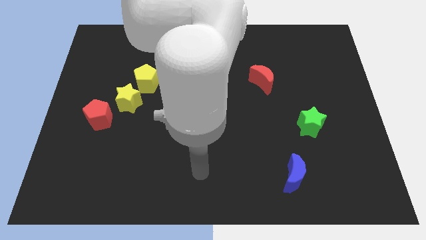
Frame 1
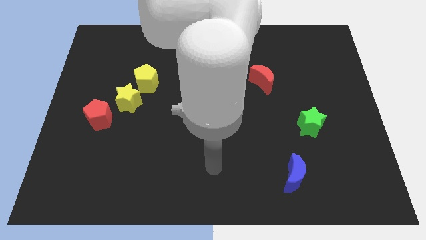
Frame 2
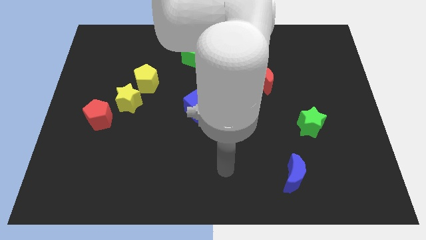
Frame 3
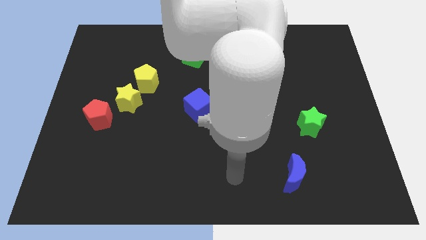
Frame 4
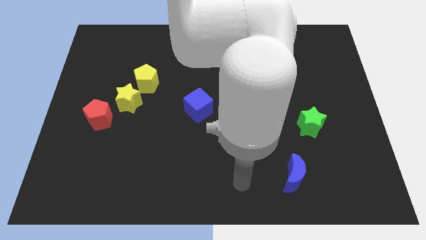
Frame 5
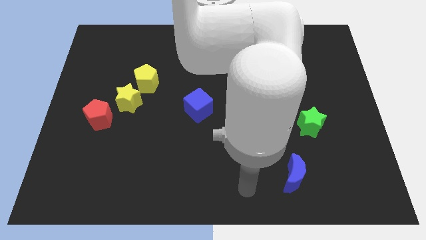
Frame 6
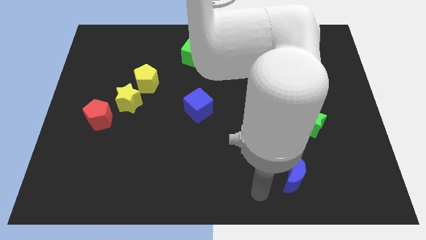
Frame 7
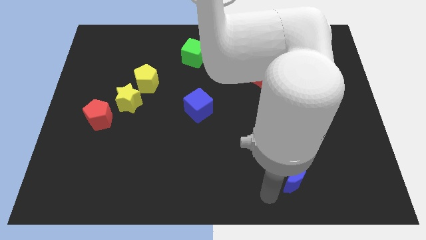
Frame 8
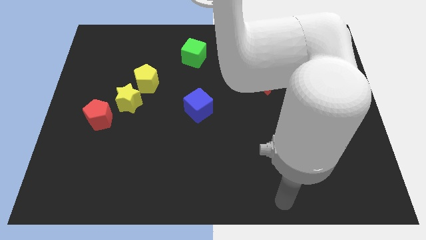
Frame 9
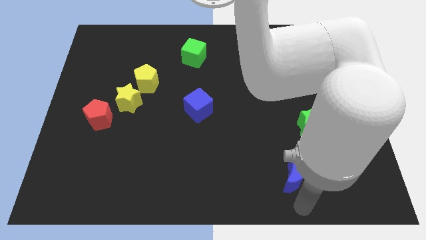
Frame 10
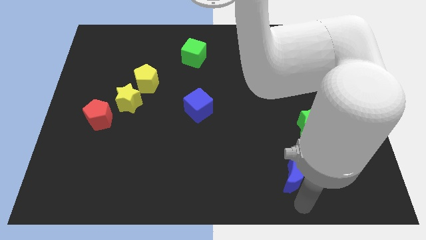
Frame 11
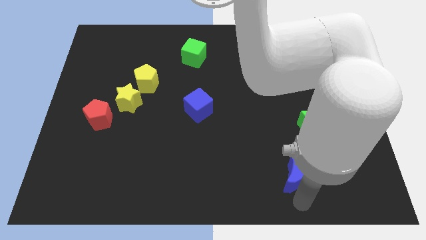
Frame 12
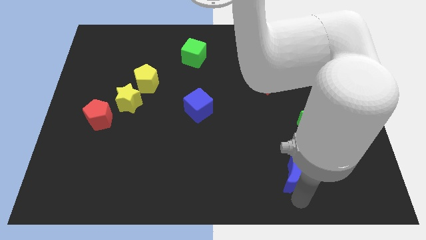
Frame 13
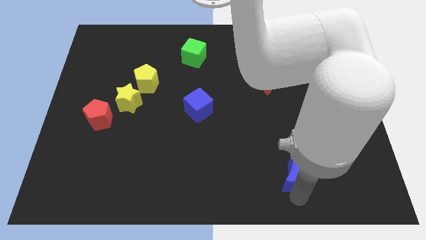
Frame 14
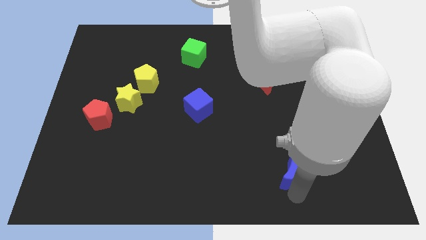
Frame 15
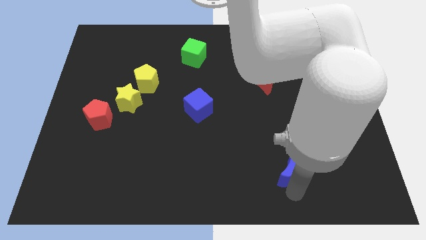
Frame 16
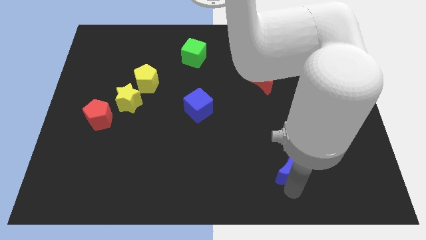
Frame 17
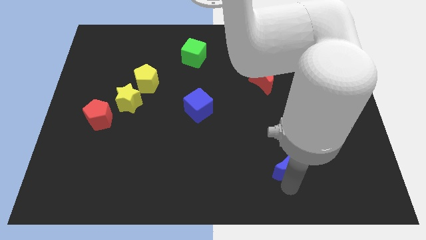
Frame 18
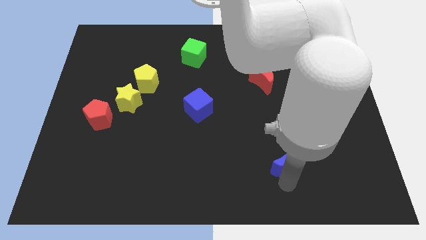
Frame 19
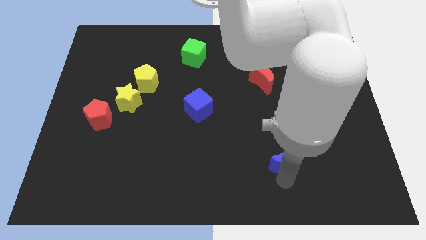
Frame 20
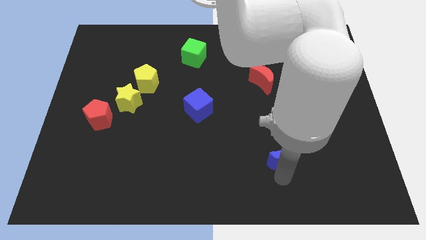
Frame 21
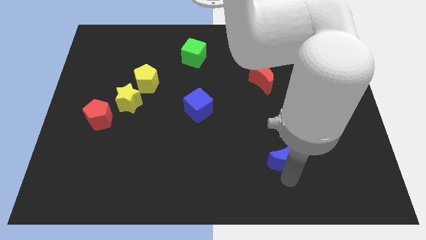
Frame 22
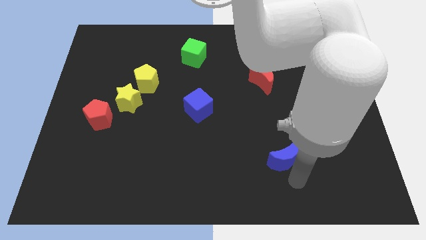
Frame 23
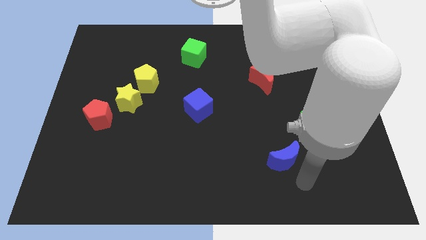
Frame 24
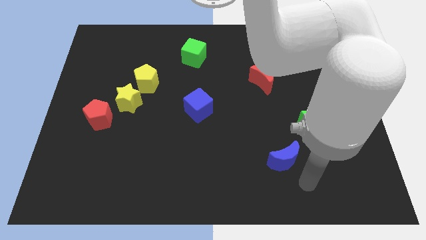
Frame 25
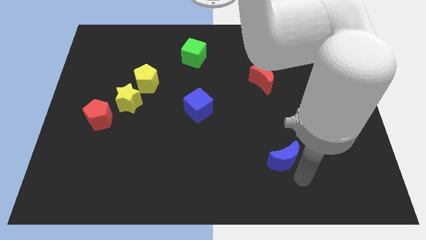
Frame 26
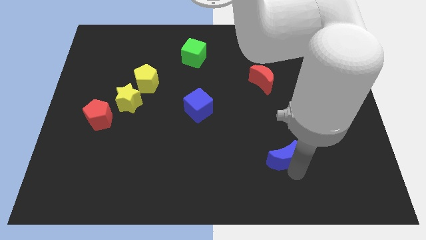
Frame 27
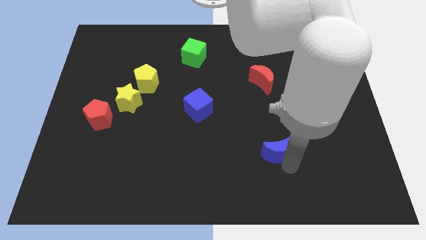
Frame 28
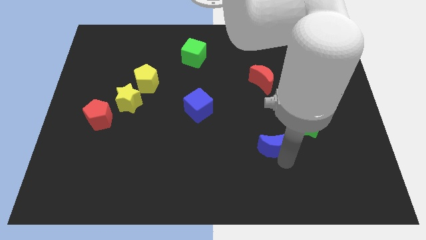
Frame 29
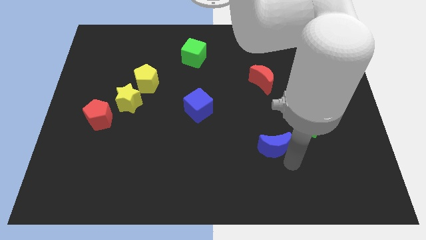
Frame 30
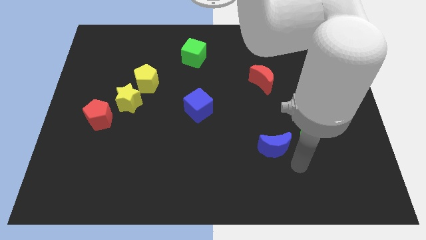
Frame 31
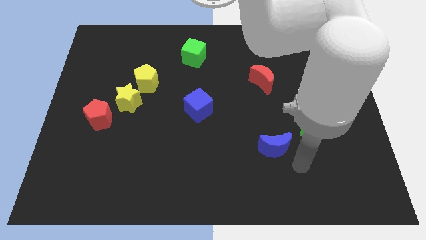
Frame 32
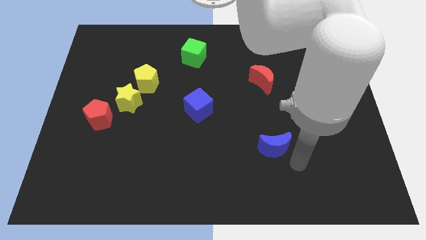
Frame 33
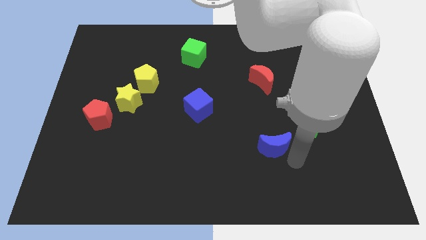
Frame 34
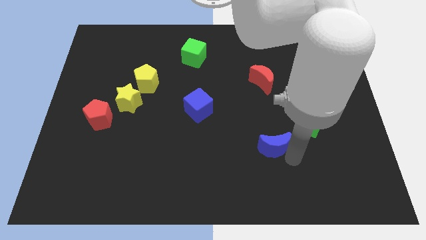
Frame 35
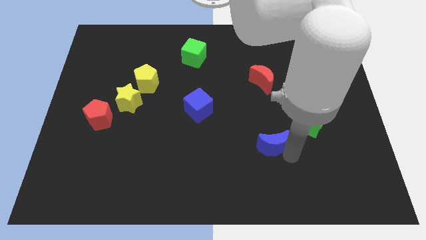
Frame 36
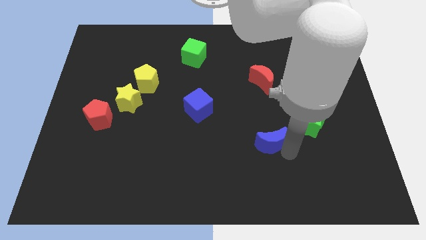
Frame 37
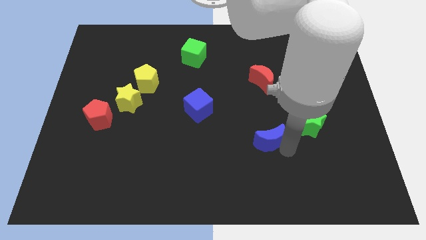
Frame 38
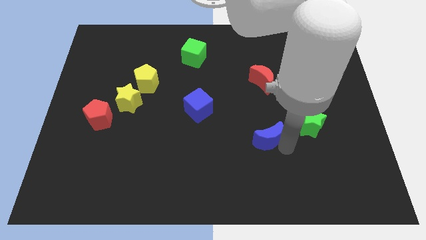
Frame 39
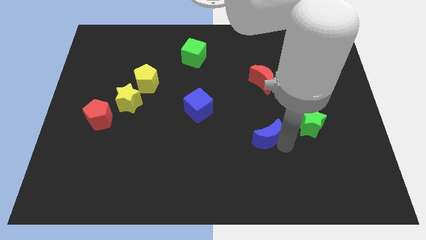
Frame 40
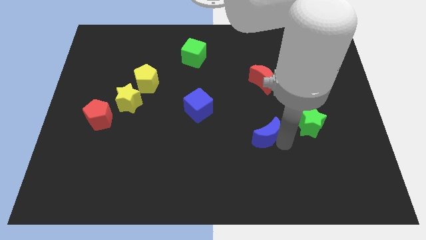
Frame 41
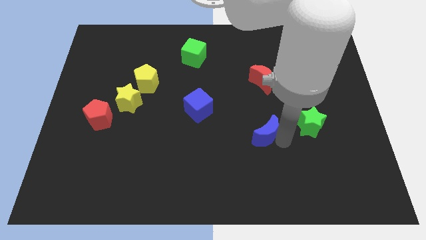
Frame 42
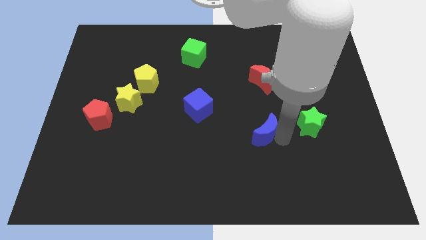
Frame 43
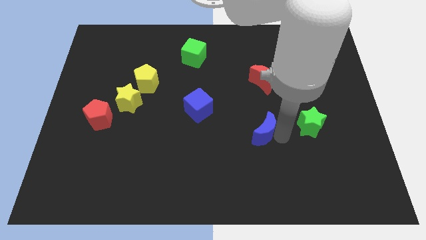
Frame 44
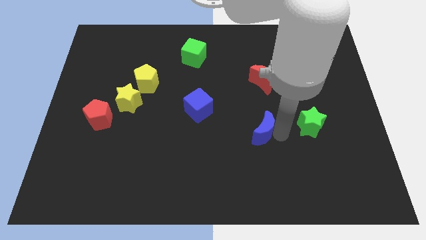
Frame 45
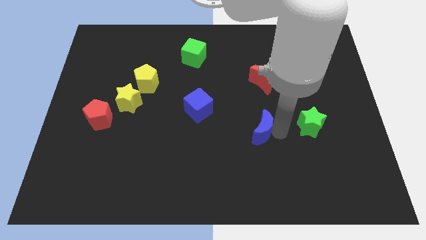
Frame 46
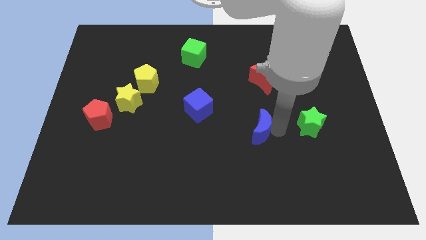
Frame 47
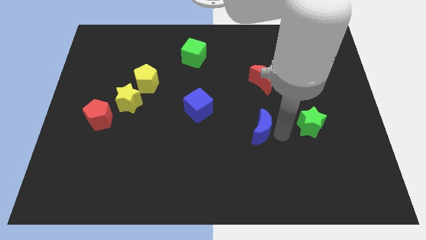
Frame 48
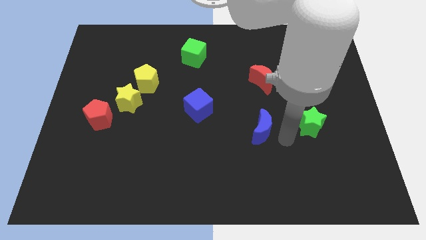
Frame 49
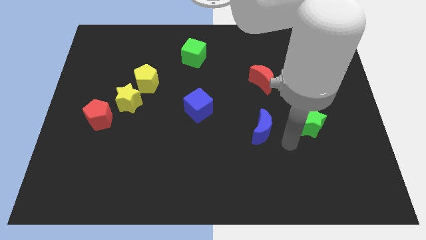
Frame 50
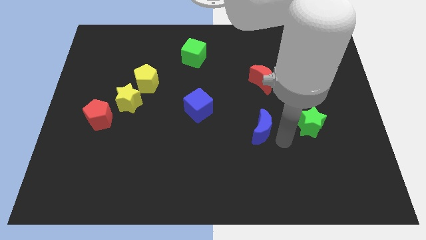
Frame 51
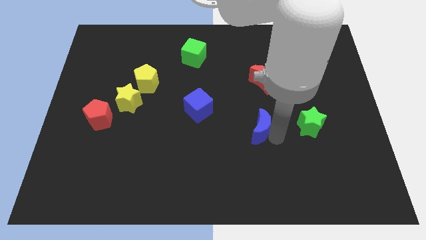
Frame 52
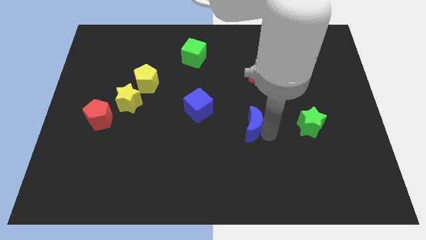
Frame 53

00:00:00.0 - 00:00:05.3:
put the blue moon to the center
